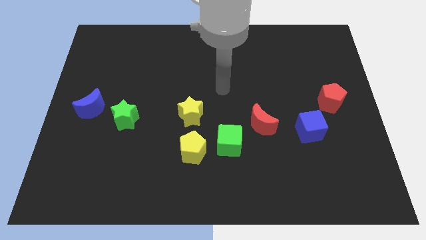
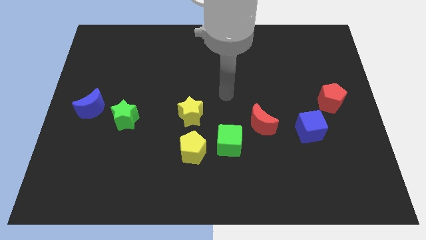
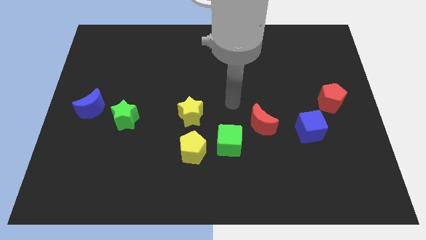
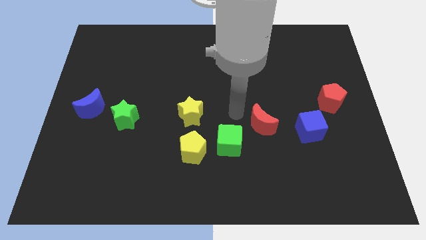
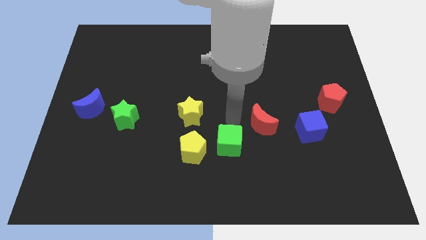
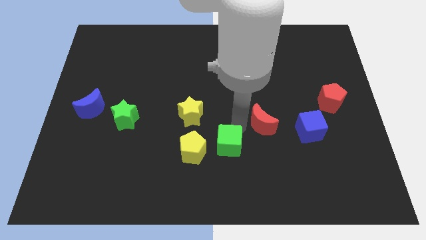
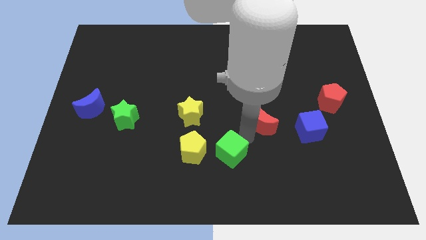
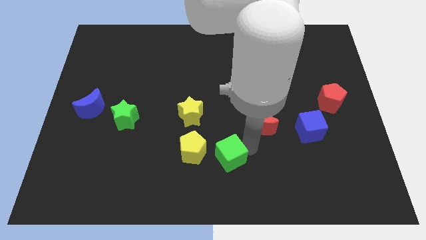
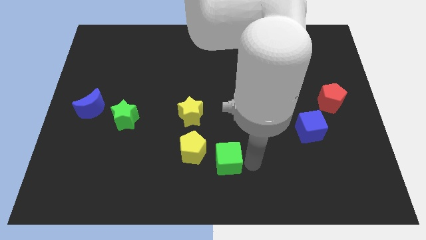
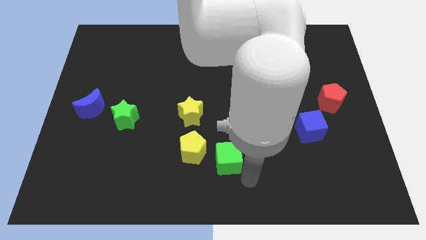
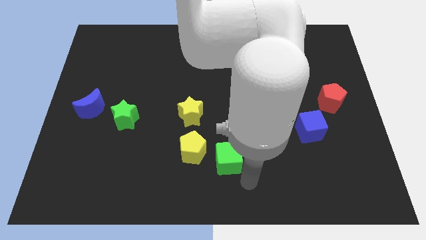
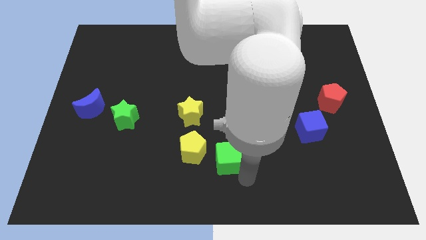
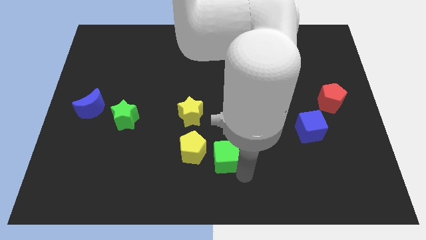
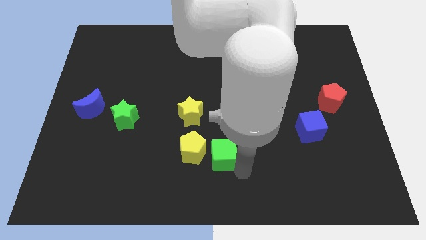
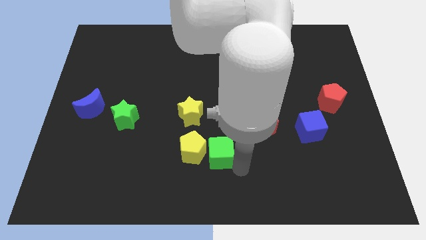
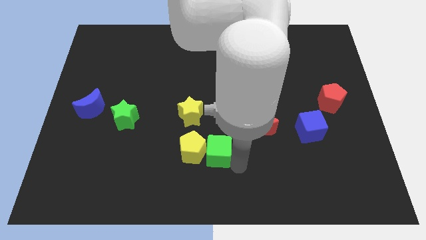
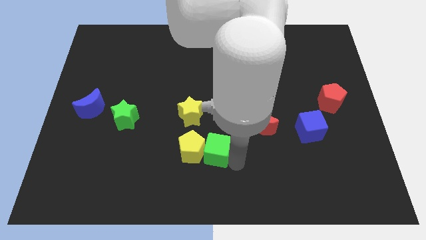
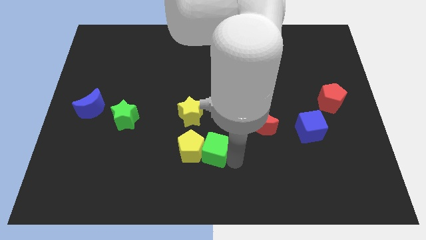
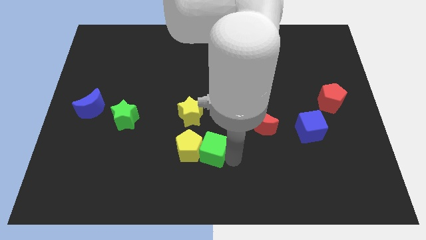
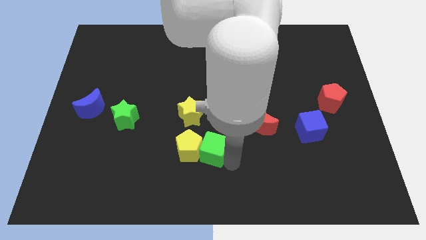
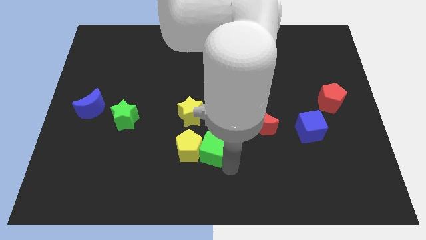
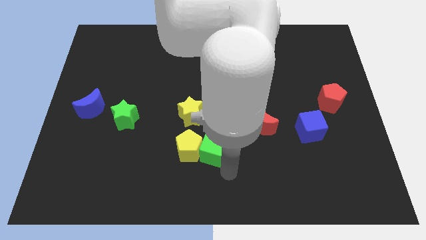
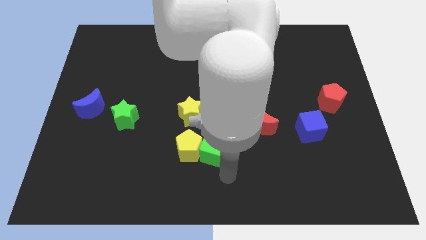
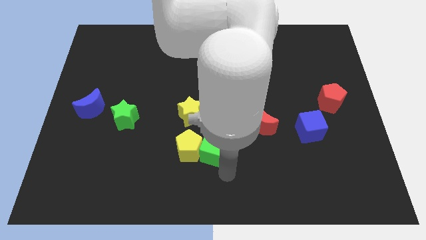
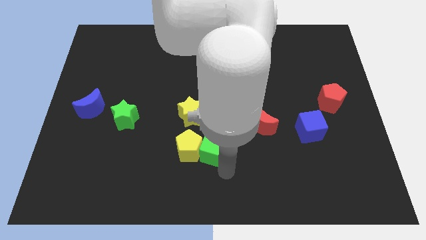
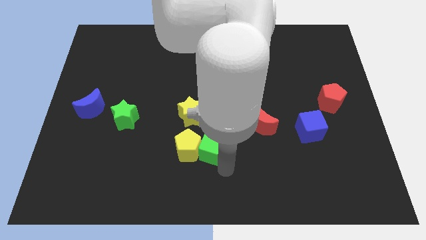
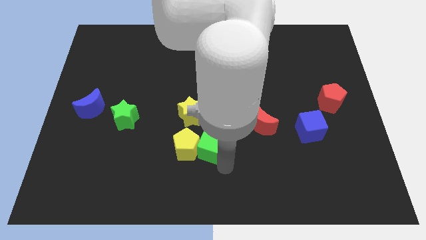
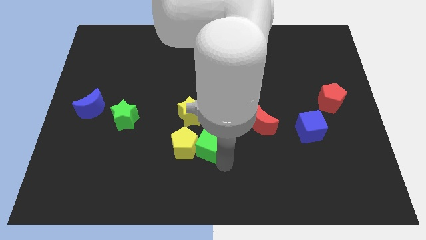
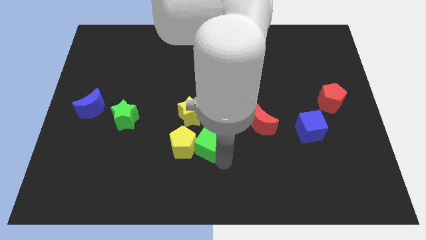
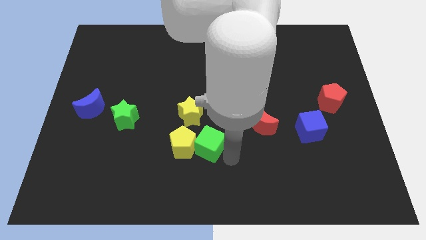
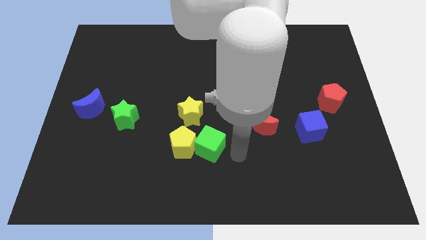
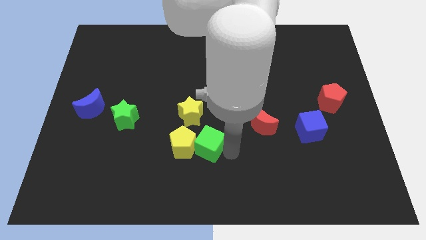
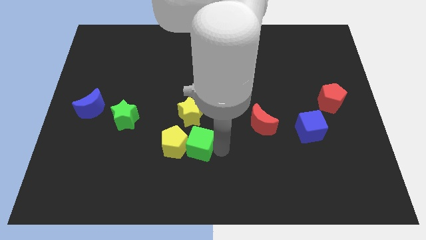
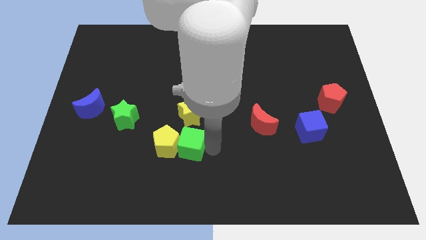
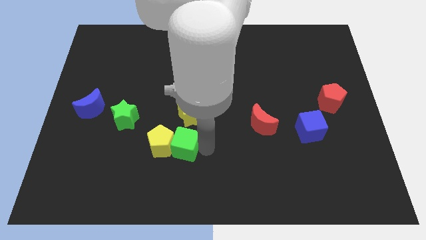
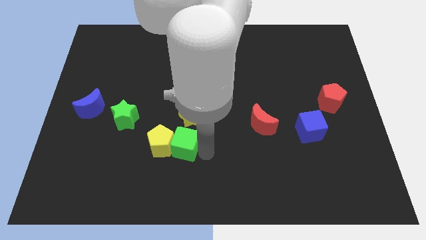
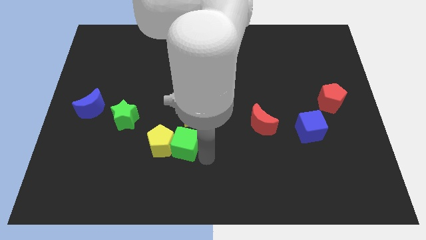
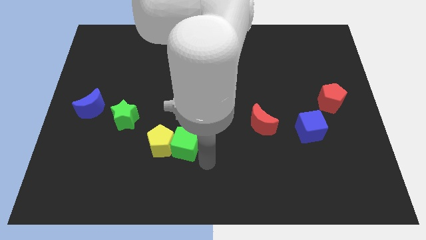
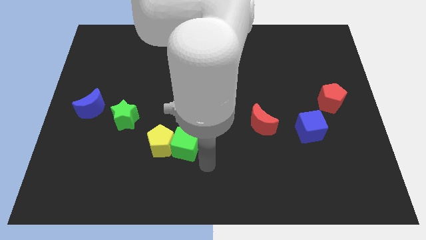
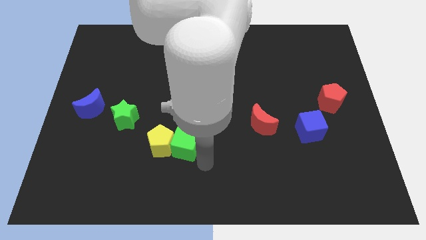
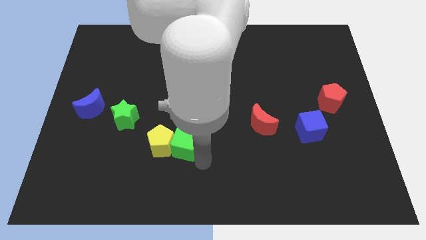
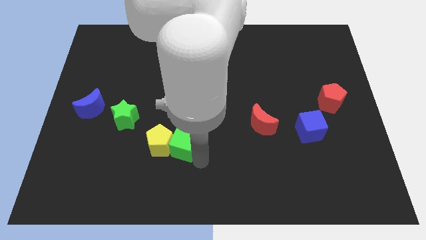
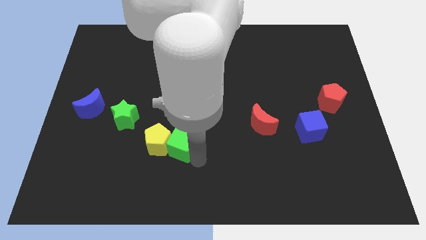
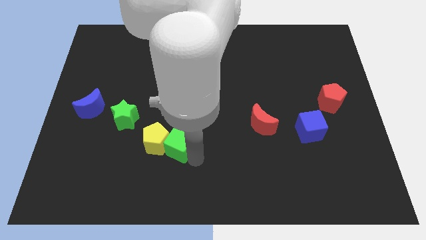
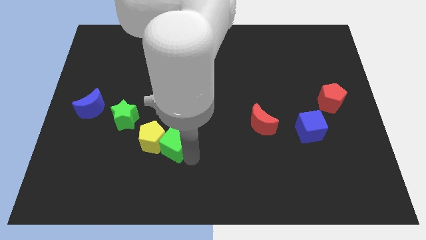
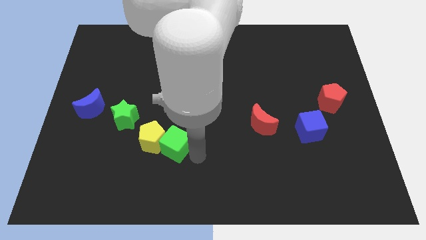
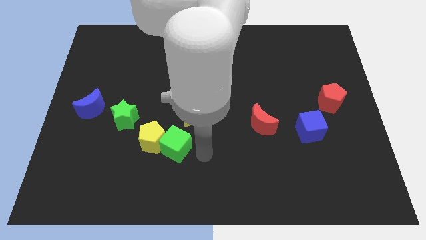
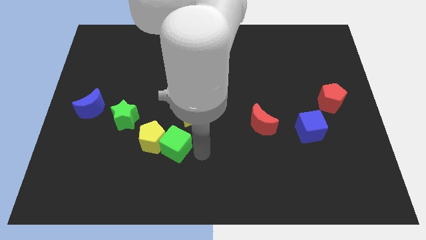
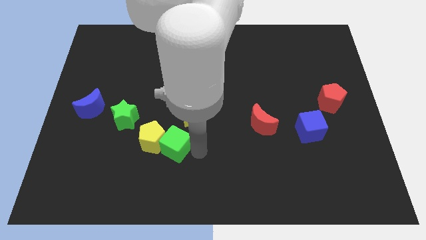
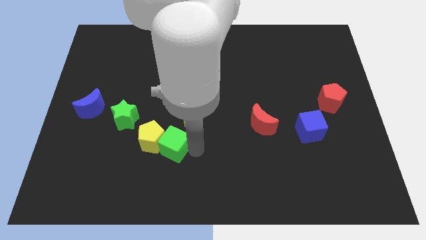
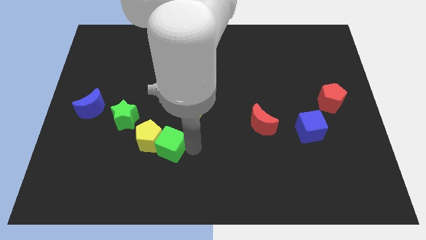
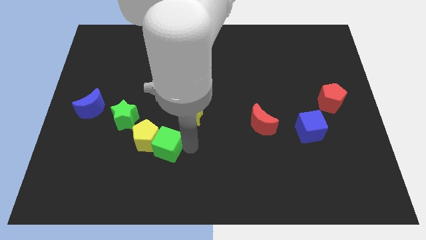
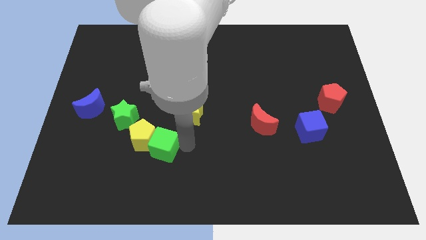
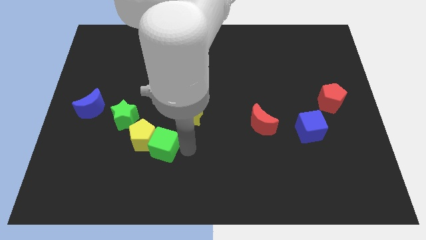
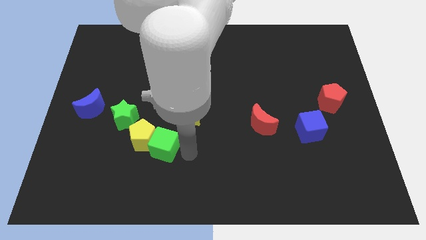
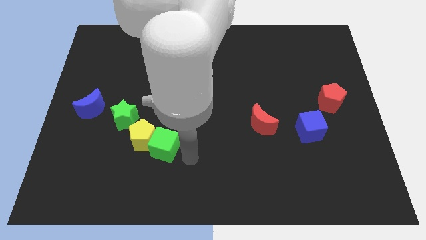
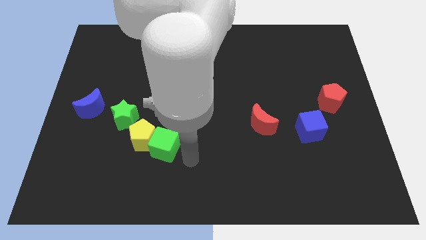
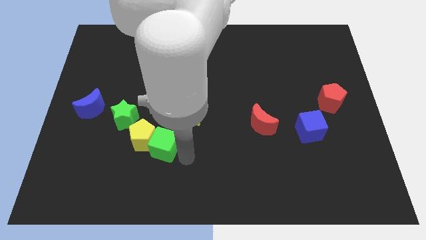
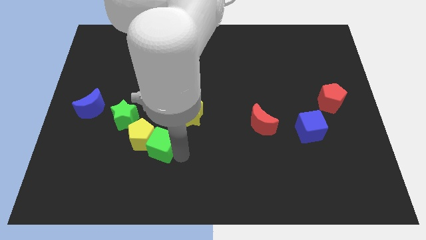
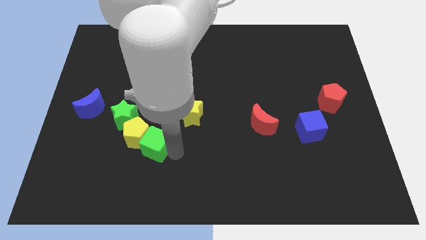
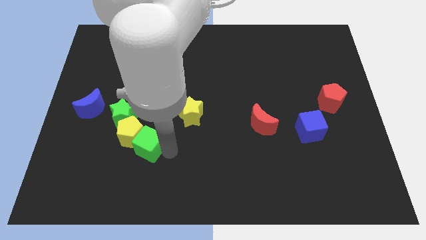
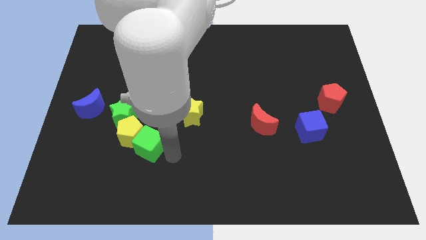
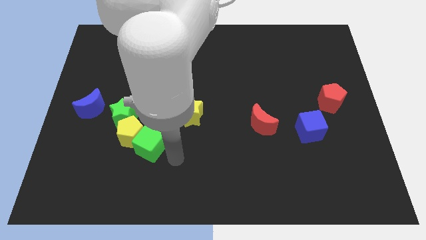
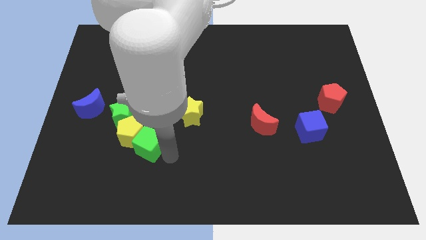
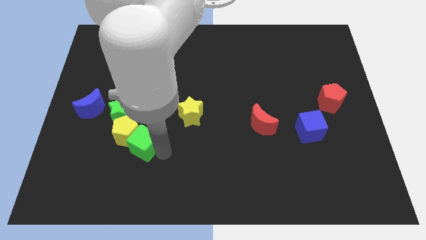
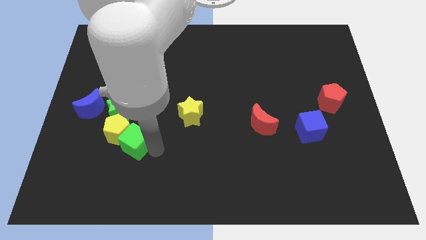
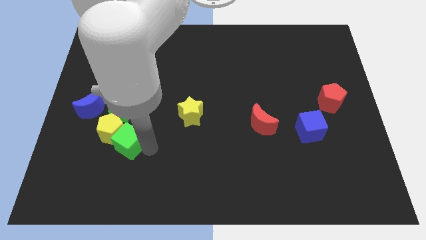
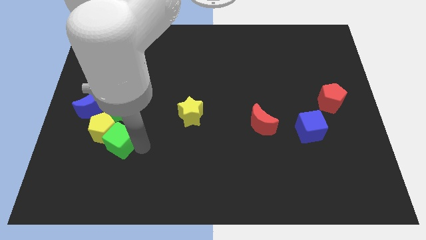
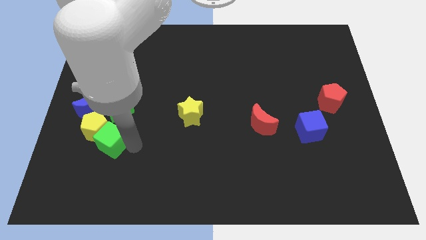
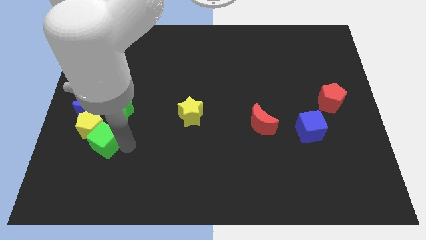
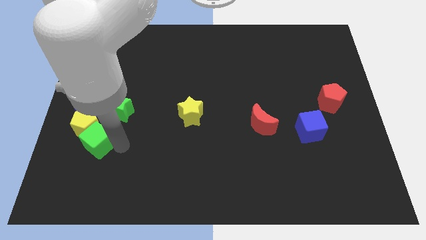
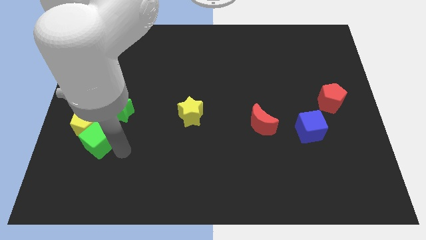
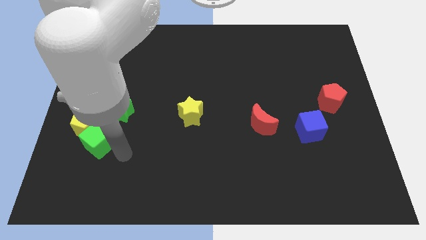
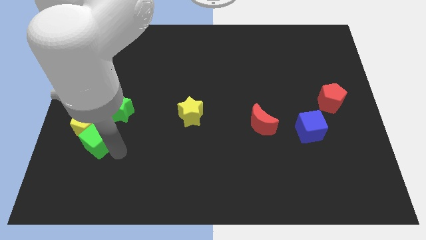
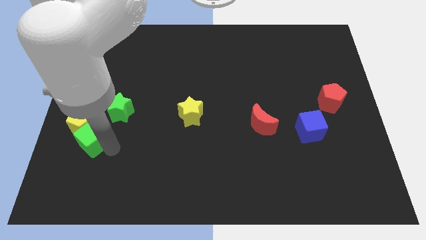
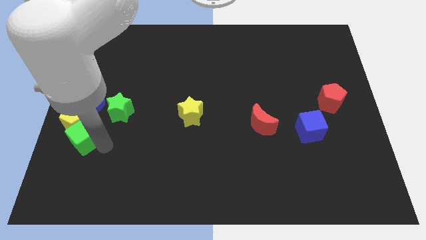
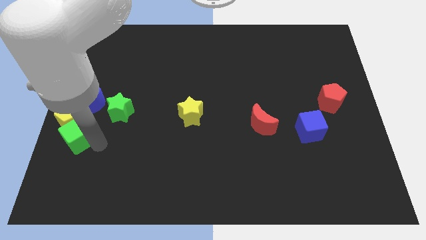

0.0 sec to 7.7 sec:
push the green cube to the left side

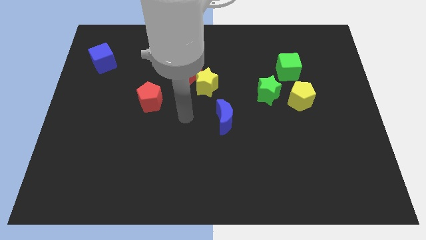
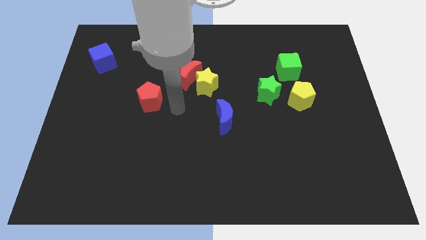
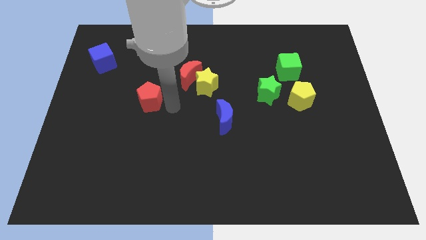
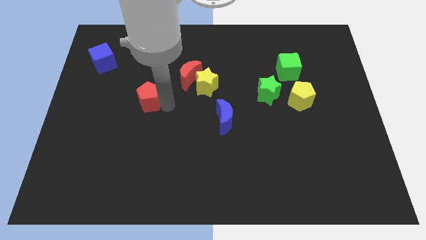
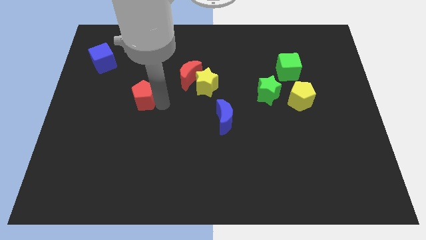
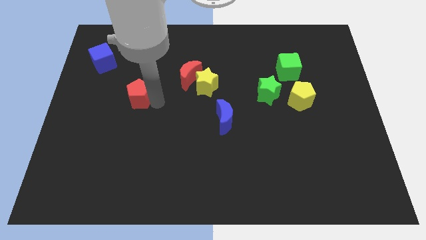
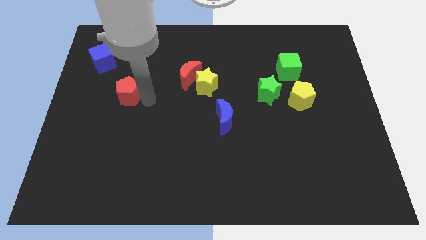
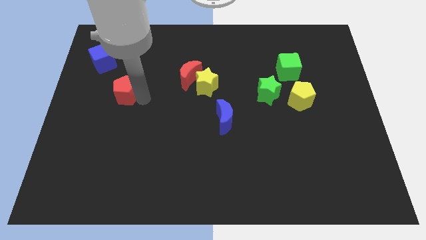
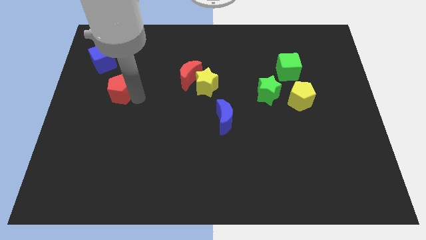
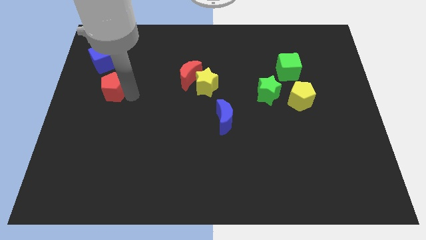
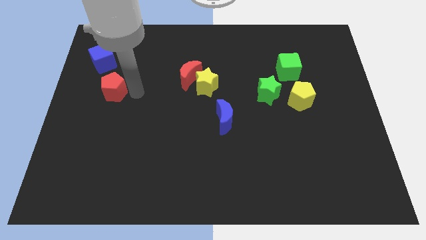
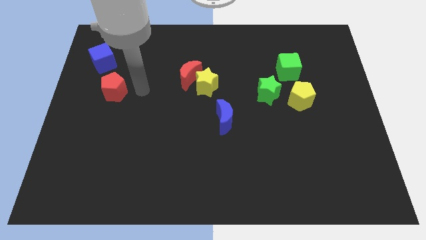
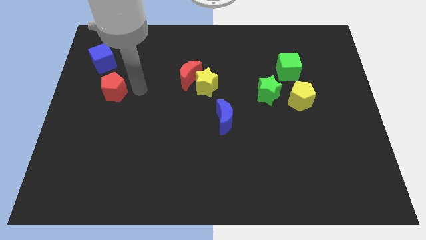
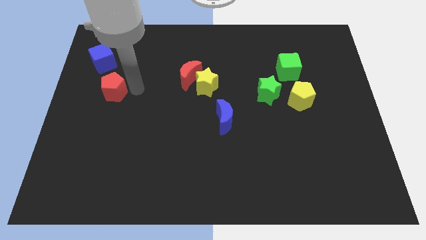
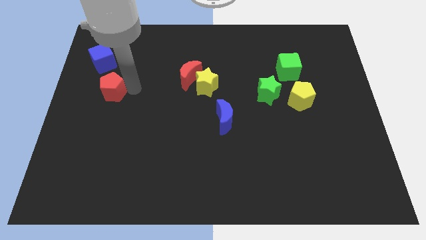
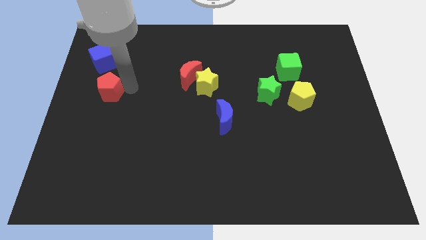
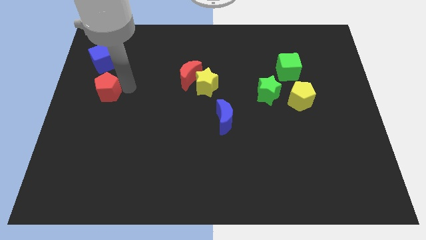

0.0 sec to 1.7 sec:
put the red pentagon to the center left
